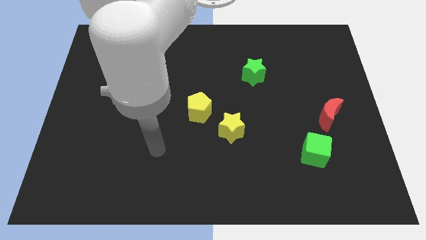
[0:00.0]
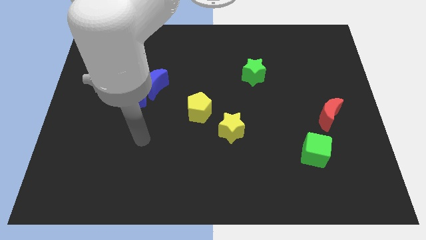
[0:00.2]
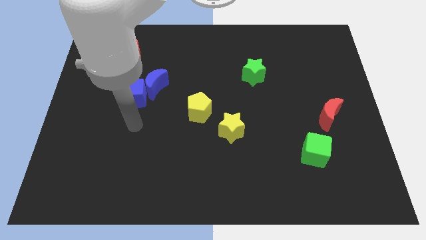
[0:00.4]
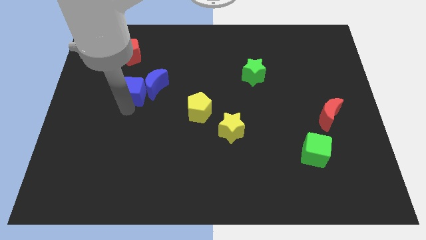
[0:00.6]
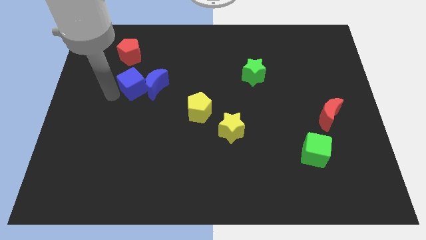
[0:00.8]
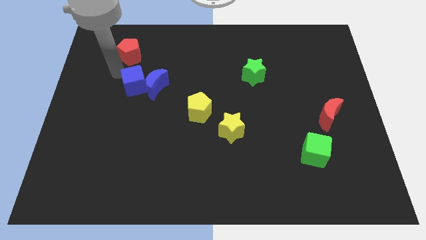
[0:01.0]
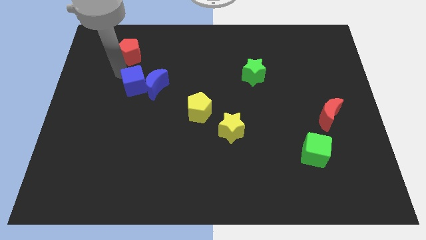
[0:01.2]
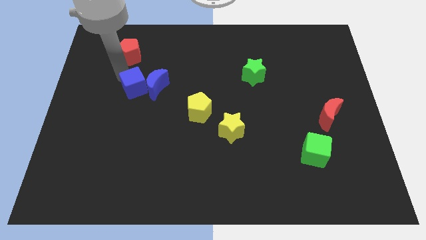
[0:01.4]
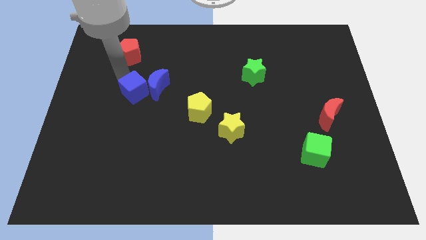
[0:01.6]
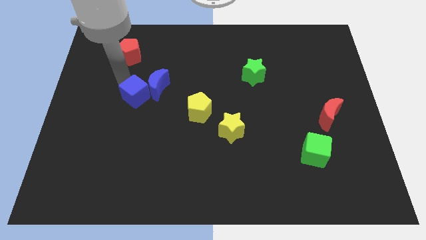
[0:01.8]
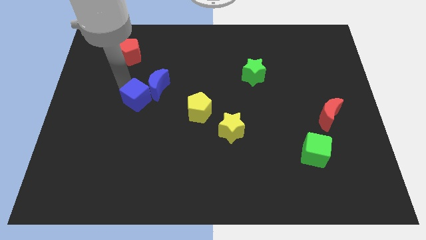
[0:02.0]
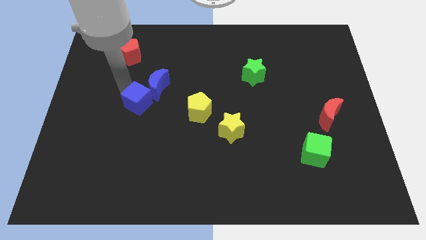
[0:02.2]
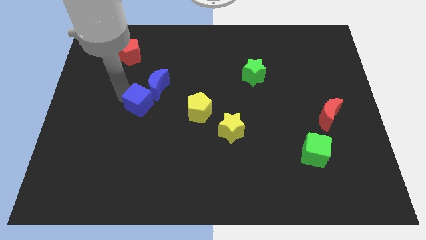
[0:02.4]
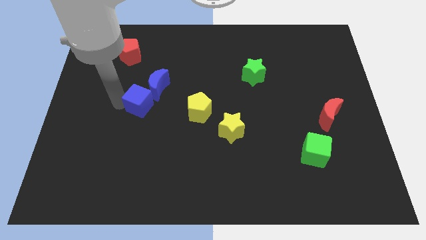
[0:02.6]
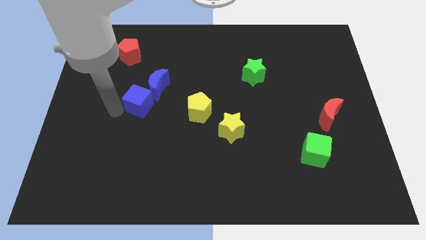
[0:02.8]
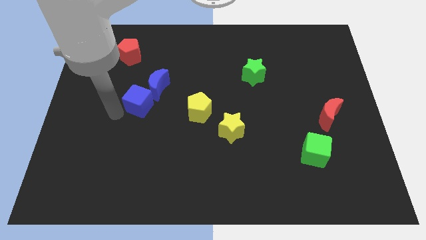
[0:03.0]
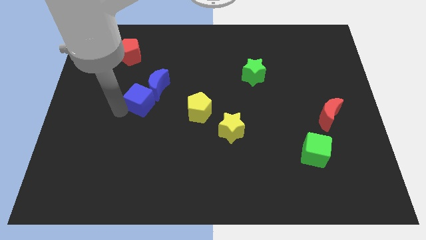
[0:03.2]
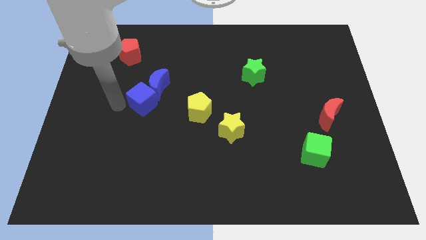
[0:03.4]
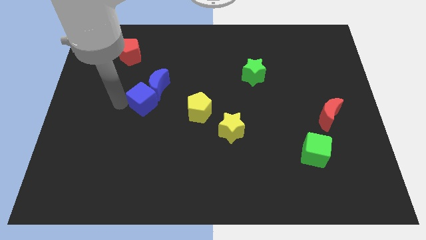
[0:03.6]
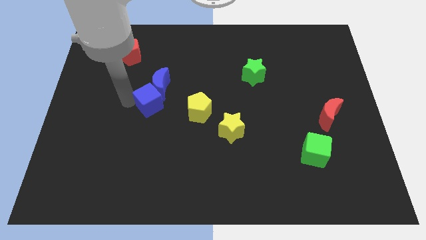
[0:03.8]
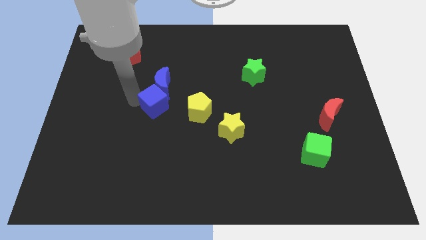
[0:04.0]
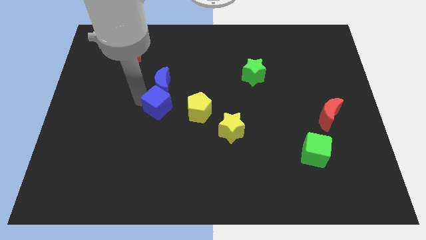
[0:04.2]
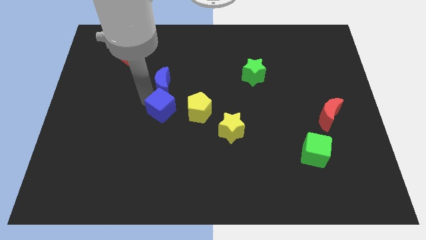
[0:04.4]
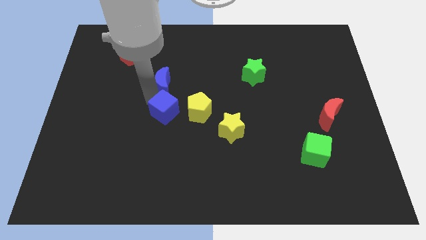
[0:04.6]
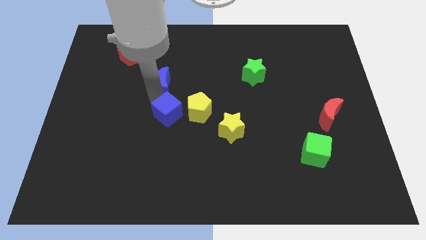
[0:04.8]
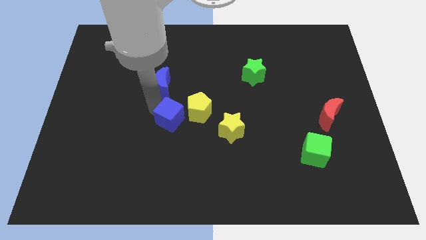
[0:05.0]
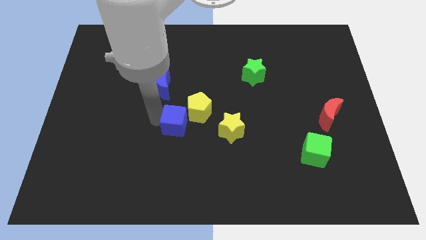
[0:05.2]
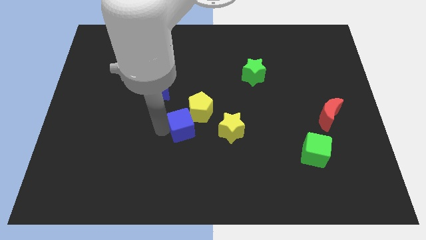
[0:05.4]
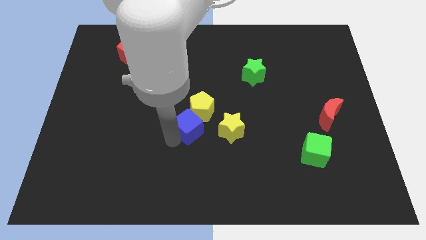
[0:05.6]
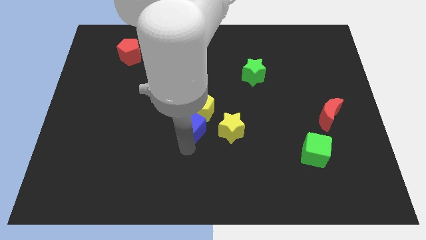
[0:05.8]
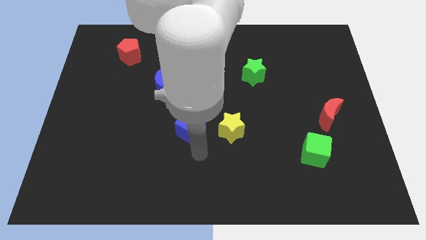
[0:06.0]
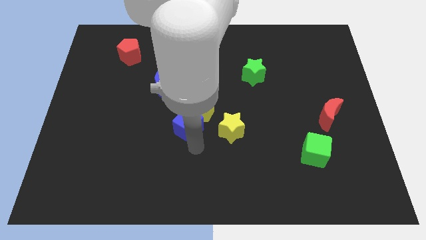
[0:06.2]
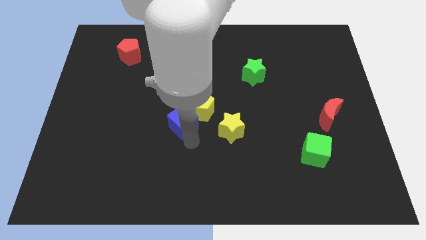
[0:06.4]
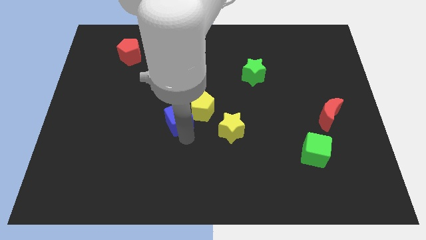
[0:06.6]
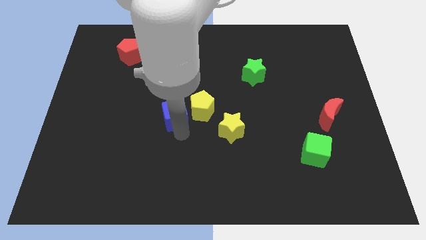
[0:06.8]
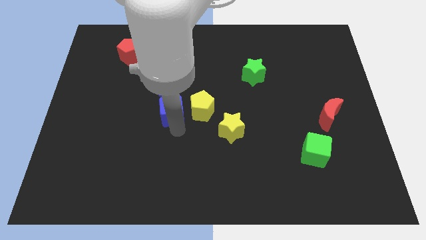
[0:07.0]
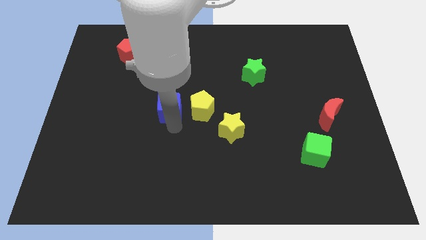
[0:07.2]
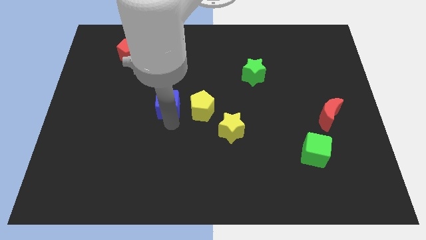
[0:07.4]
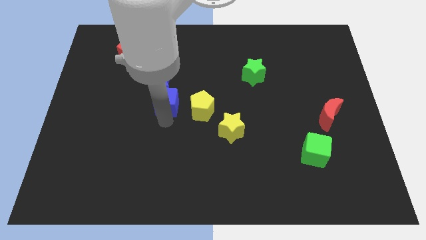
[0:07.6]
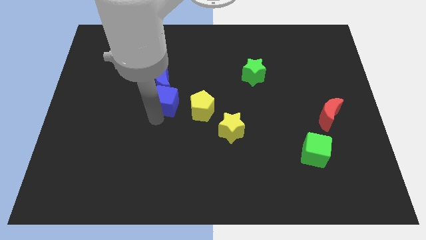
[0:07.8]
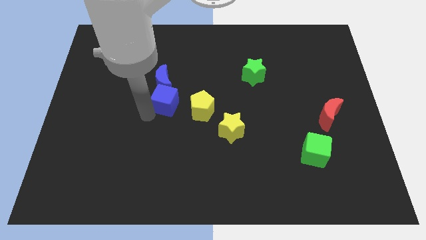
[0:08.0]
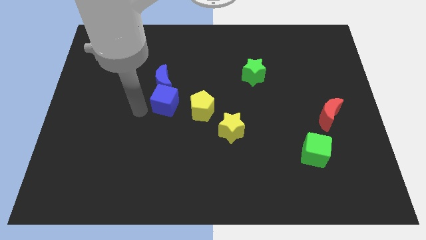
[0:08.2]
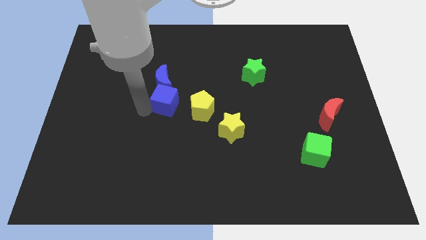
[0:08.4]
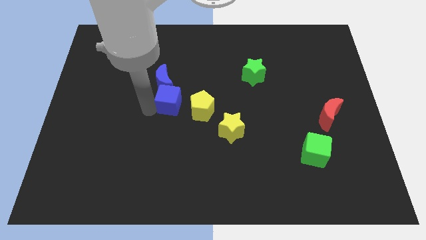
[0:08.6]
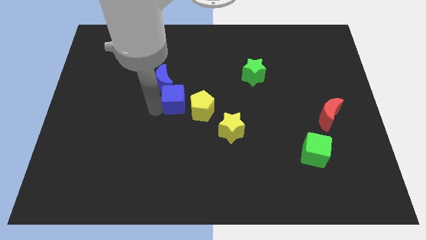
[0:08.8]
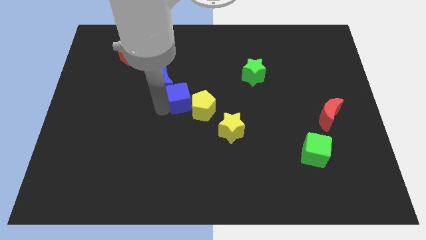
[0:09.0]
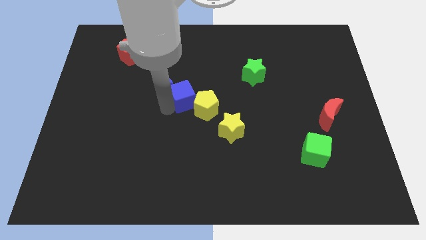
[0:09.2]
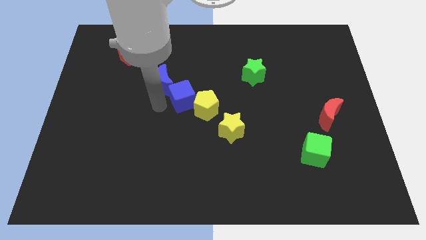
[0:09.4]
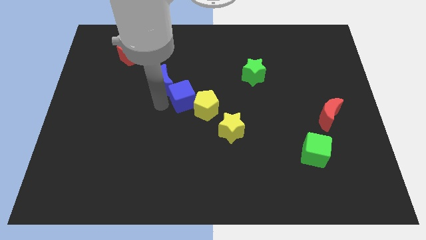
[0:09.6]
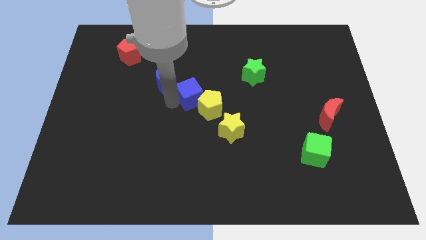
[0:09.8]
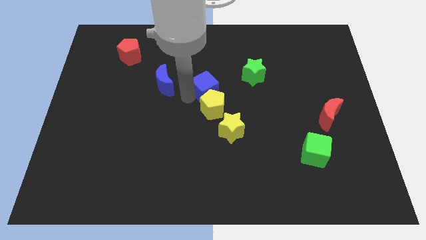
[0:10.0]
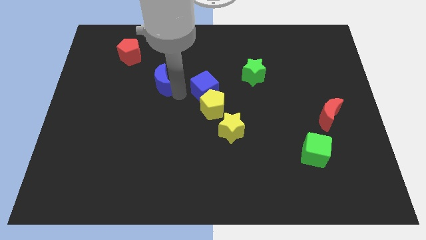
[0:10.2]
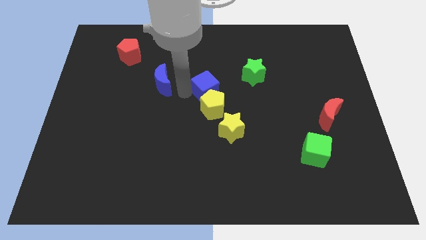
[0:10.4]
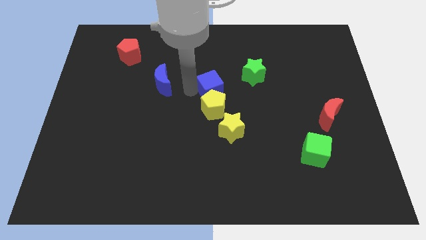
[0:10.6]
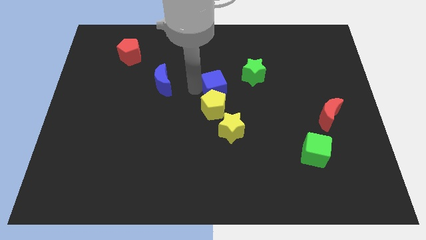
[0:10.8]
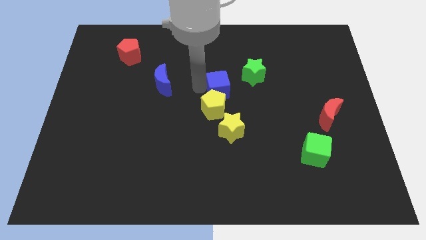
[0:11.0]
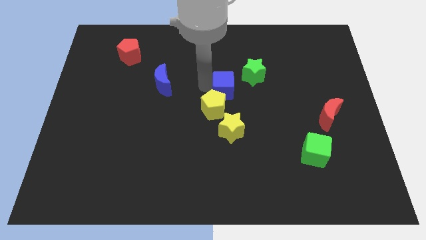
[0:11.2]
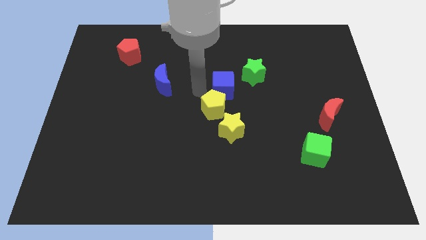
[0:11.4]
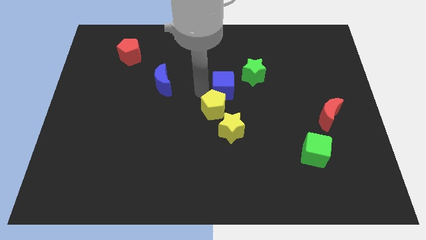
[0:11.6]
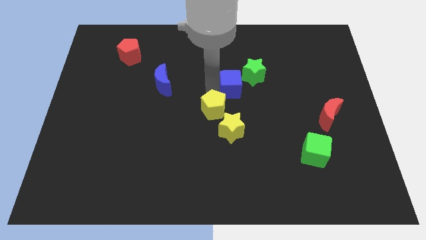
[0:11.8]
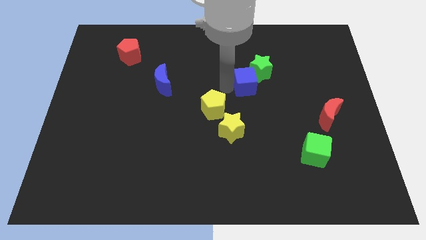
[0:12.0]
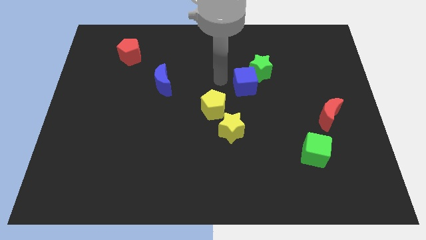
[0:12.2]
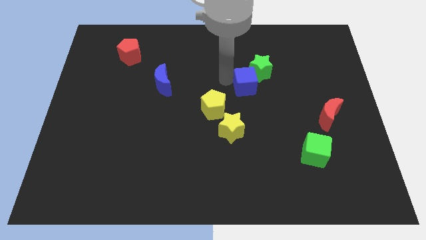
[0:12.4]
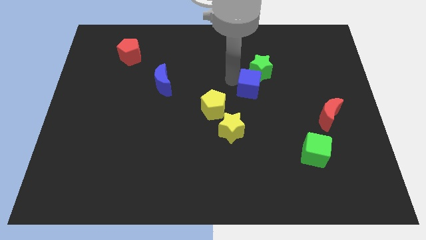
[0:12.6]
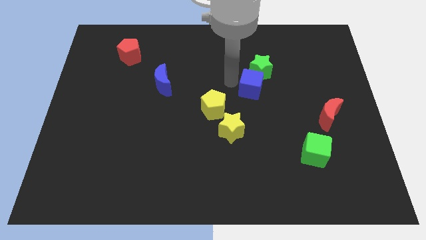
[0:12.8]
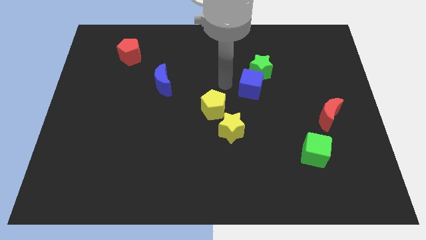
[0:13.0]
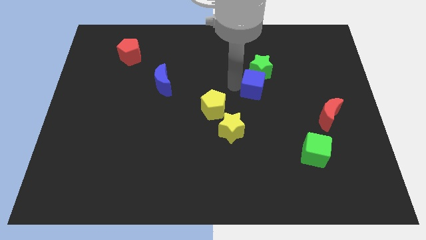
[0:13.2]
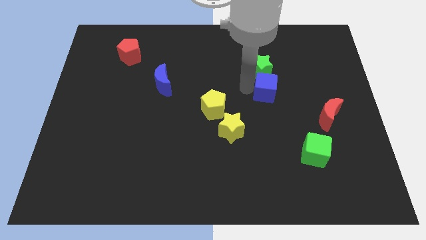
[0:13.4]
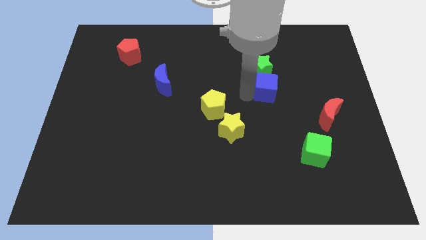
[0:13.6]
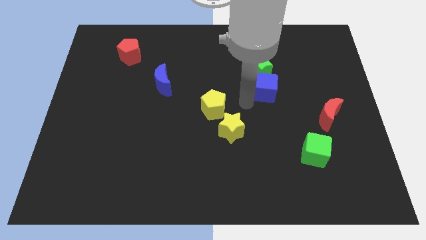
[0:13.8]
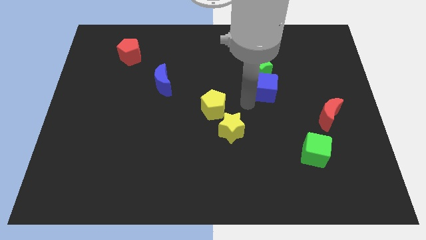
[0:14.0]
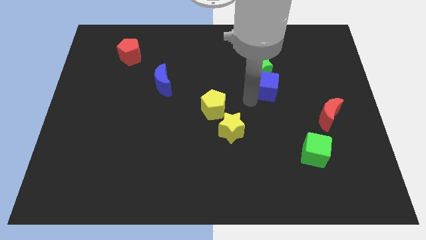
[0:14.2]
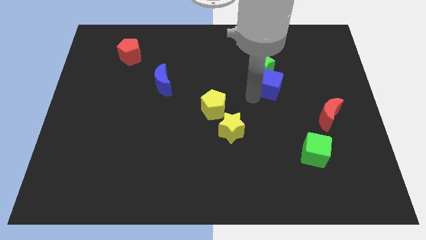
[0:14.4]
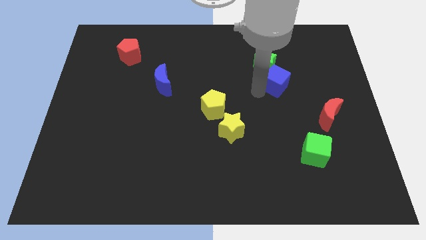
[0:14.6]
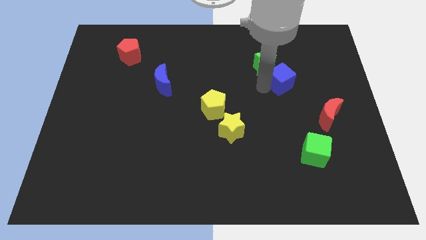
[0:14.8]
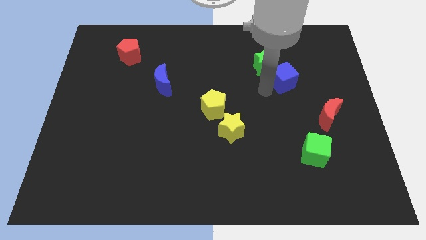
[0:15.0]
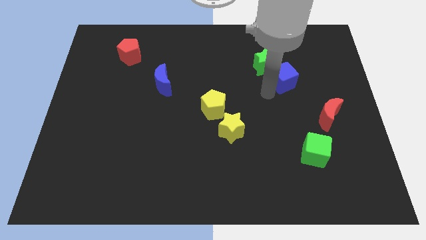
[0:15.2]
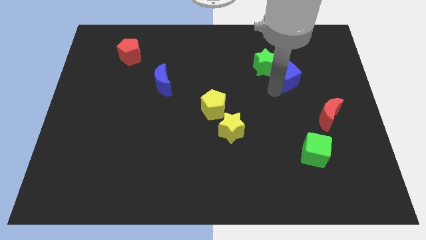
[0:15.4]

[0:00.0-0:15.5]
put the blue cube to the right side of the green star
